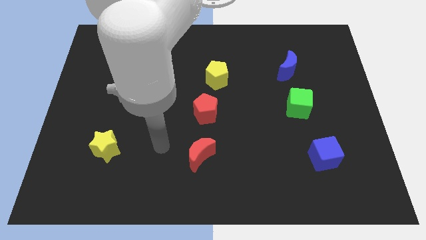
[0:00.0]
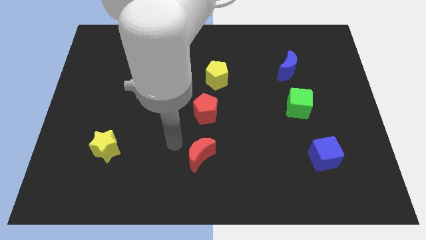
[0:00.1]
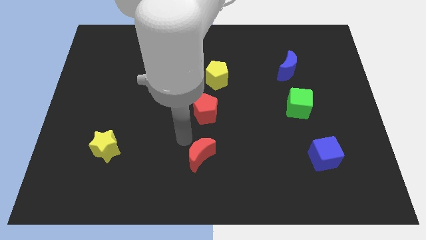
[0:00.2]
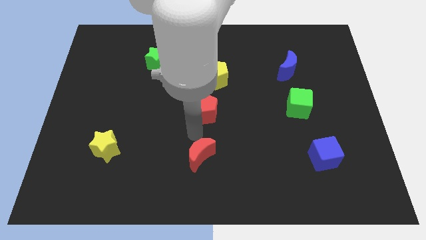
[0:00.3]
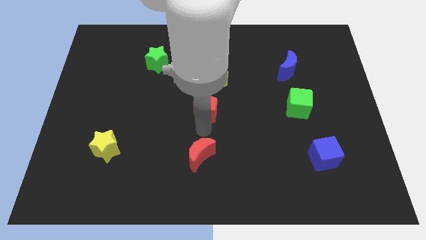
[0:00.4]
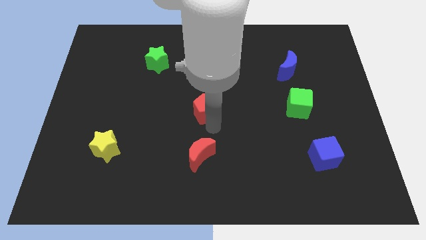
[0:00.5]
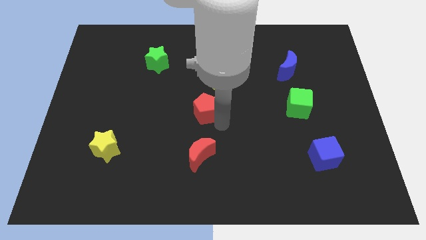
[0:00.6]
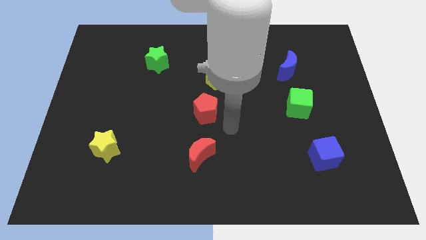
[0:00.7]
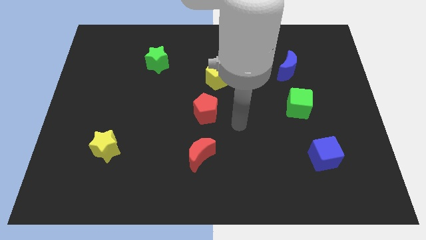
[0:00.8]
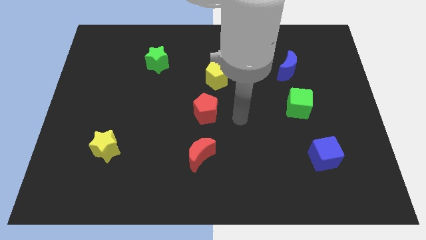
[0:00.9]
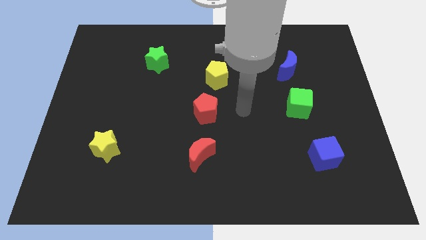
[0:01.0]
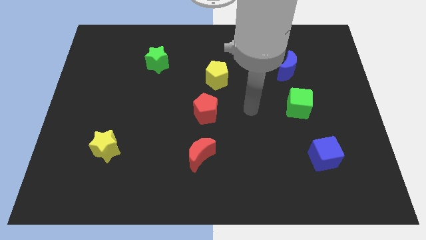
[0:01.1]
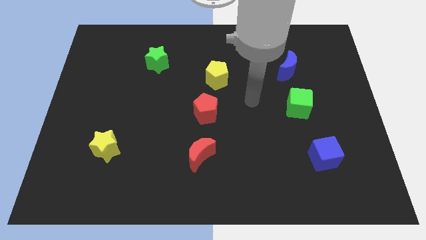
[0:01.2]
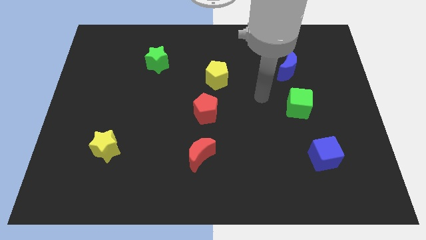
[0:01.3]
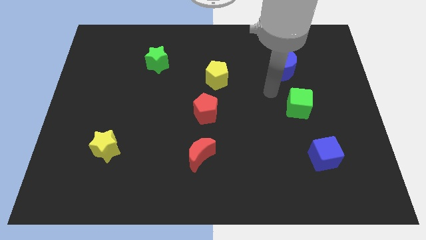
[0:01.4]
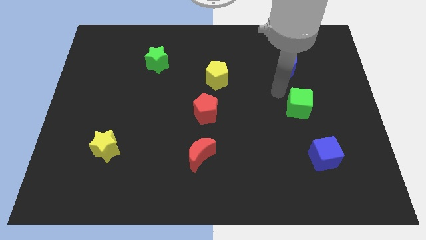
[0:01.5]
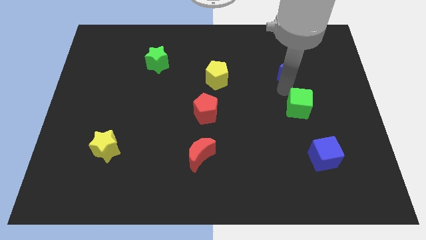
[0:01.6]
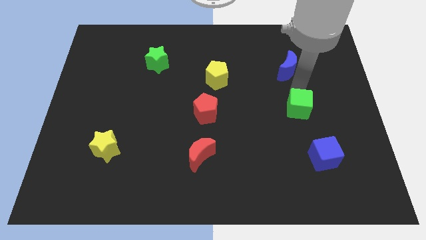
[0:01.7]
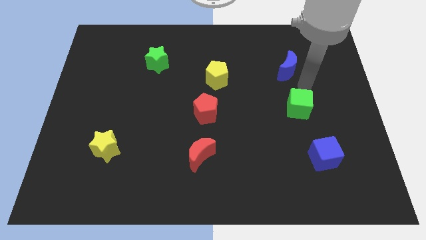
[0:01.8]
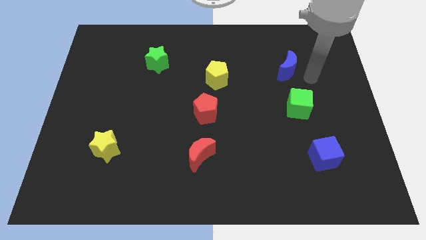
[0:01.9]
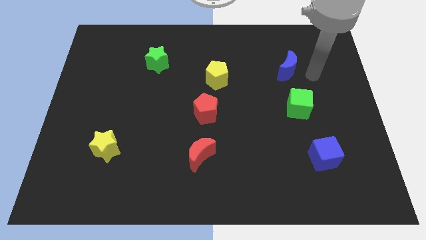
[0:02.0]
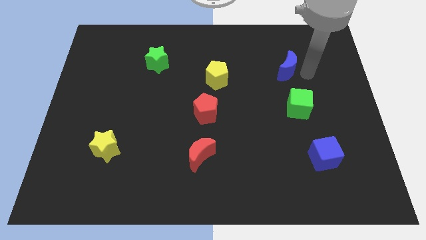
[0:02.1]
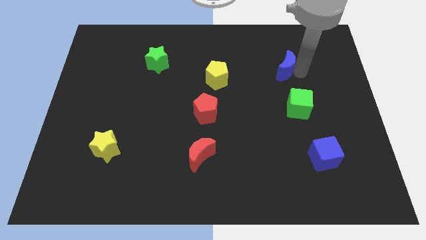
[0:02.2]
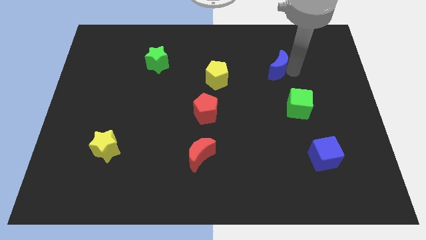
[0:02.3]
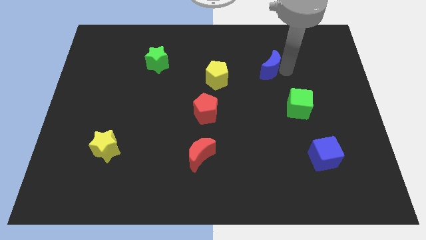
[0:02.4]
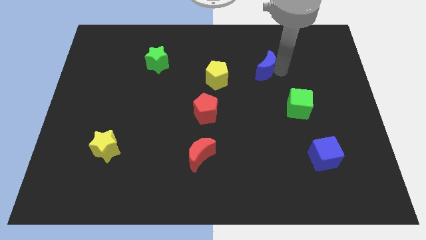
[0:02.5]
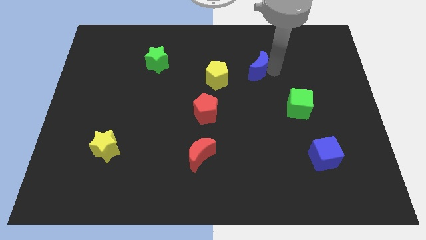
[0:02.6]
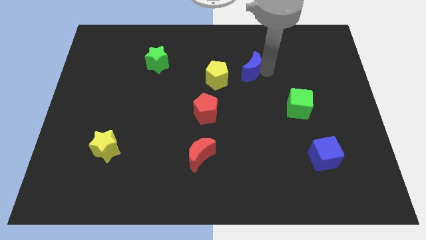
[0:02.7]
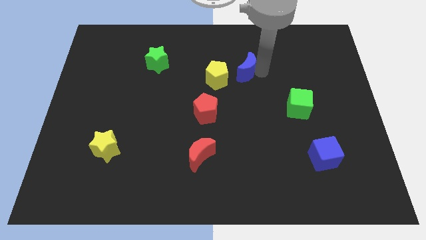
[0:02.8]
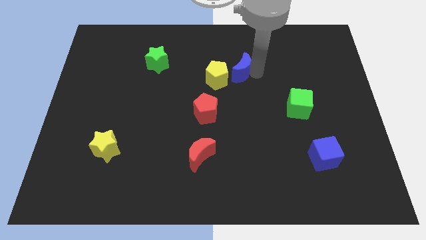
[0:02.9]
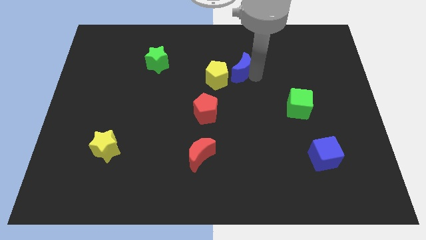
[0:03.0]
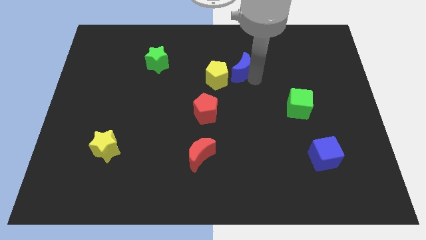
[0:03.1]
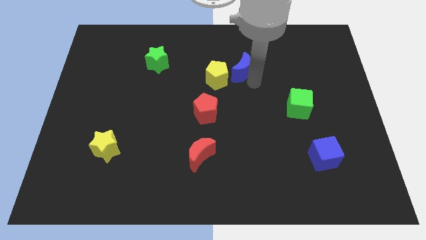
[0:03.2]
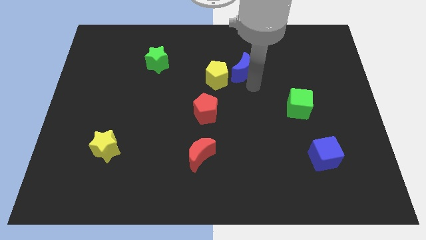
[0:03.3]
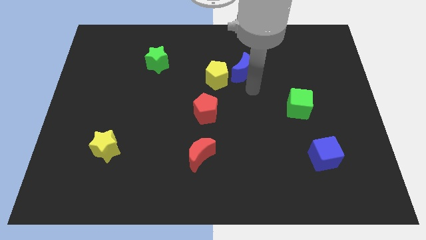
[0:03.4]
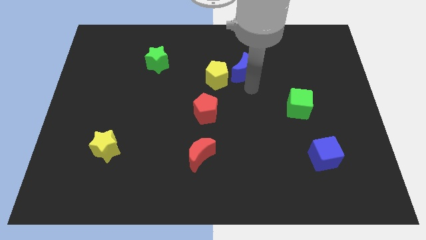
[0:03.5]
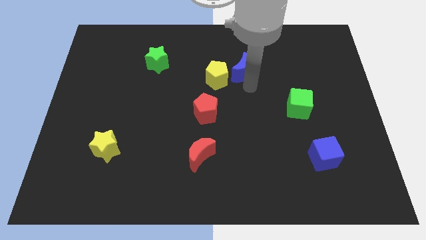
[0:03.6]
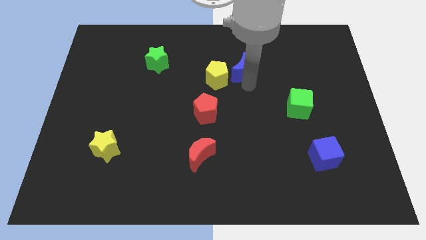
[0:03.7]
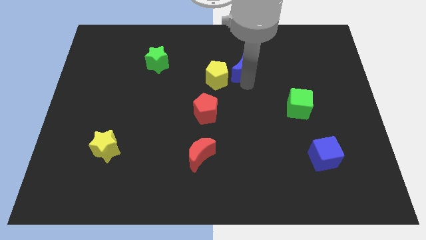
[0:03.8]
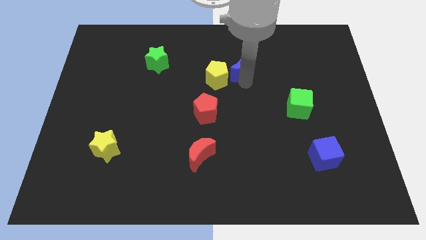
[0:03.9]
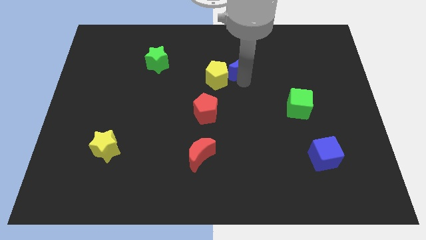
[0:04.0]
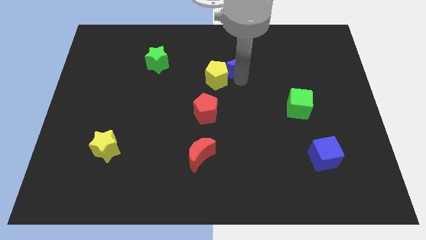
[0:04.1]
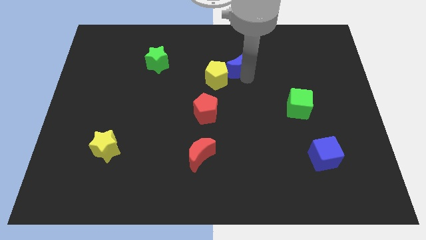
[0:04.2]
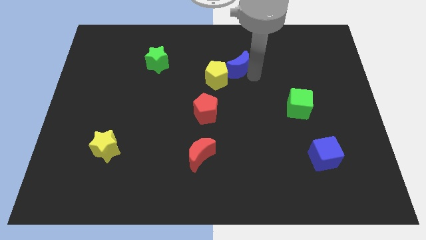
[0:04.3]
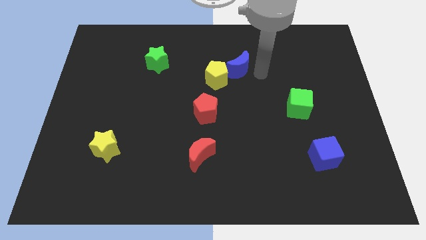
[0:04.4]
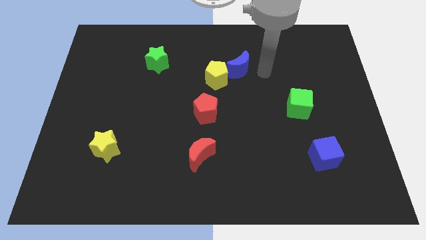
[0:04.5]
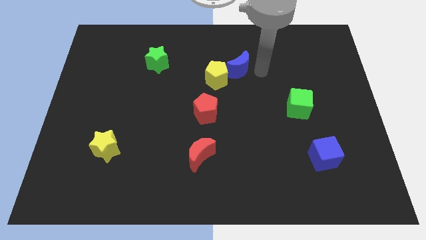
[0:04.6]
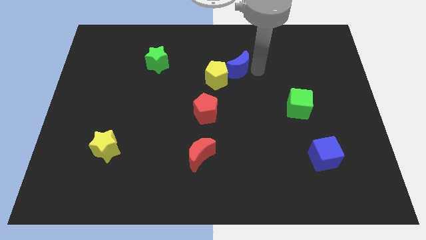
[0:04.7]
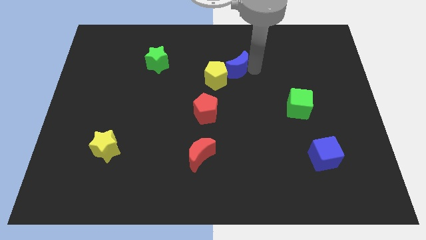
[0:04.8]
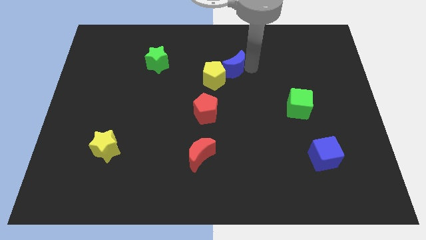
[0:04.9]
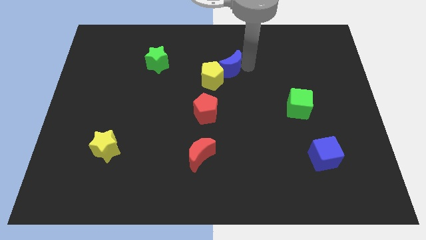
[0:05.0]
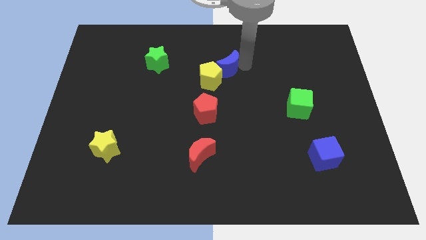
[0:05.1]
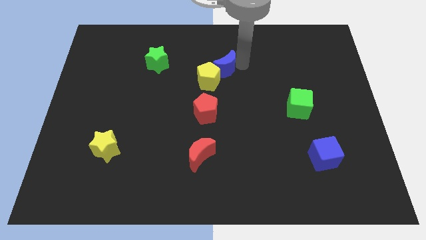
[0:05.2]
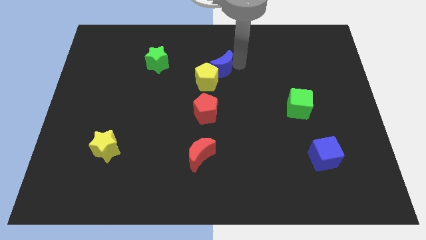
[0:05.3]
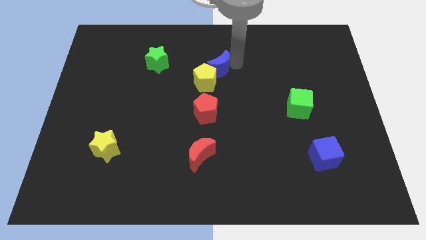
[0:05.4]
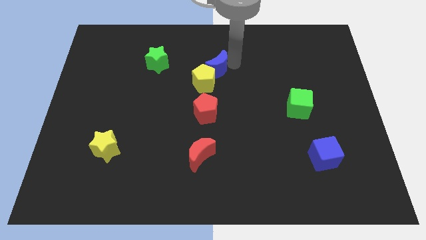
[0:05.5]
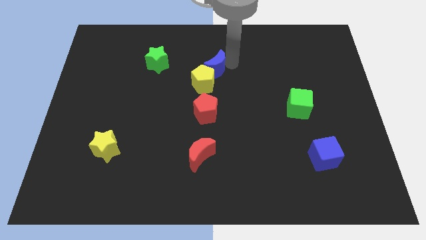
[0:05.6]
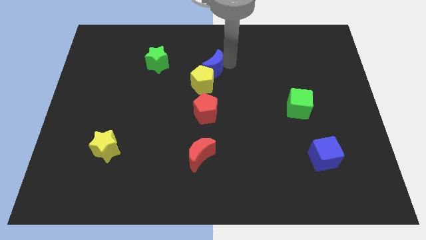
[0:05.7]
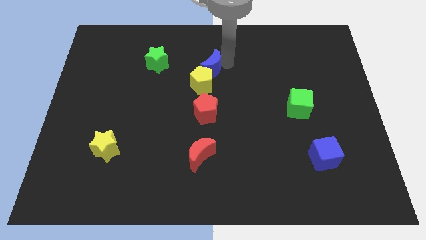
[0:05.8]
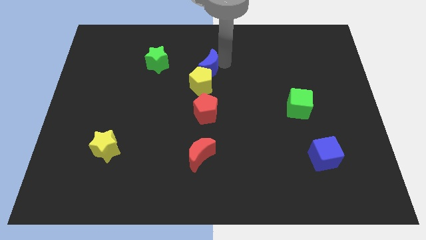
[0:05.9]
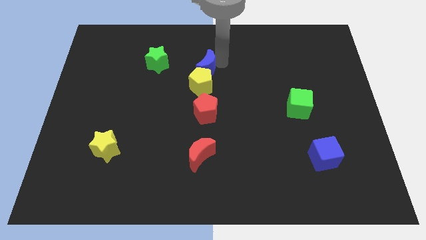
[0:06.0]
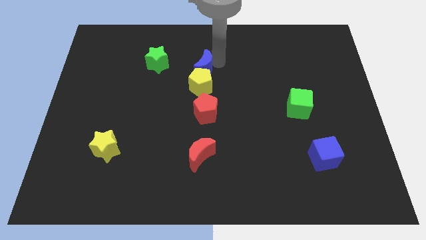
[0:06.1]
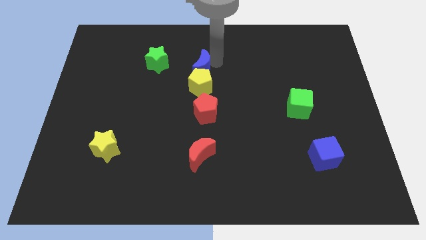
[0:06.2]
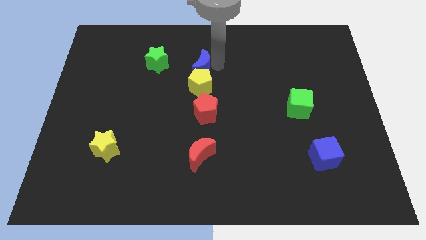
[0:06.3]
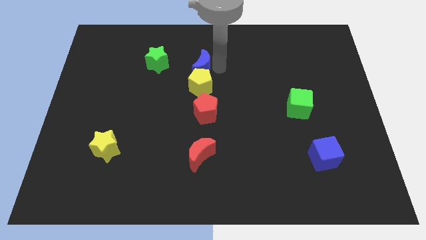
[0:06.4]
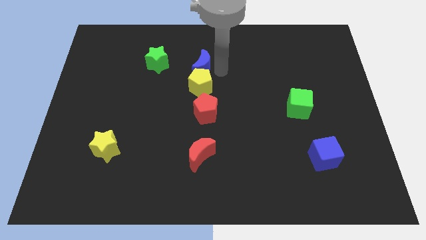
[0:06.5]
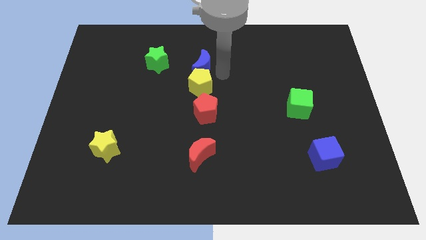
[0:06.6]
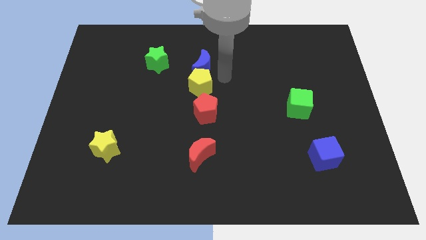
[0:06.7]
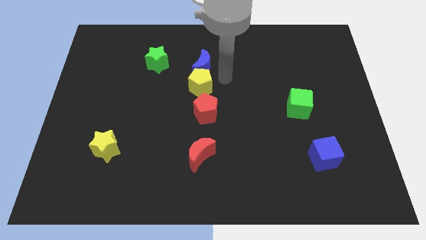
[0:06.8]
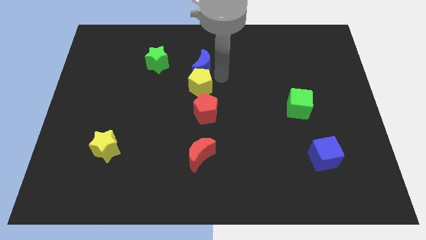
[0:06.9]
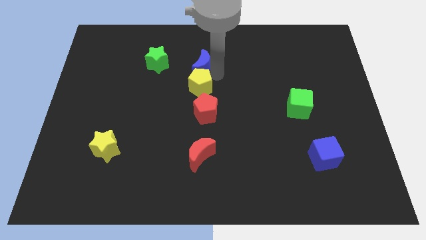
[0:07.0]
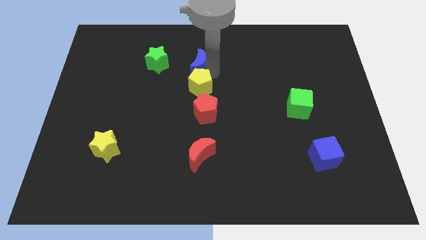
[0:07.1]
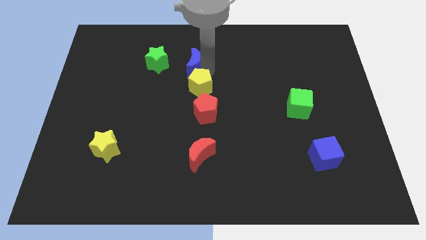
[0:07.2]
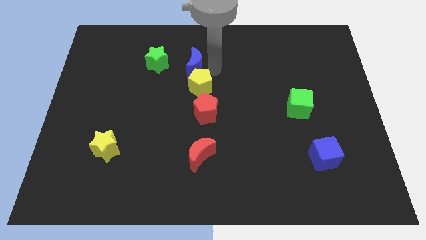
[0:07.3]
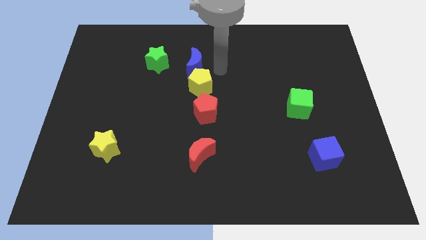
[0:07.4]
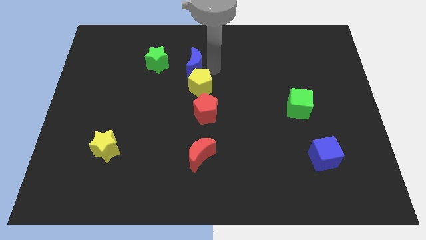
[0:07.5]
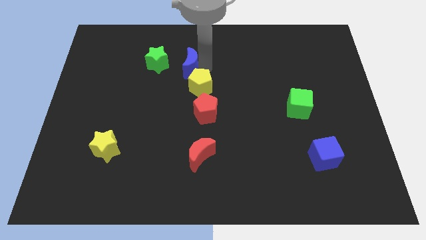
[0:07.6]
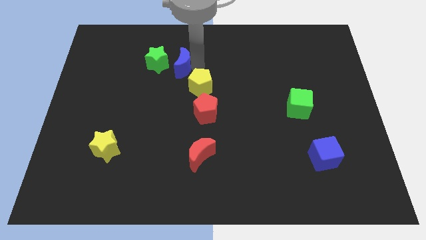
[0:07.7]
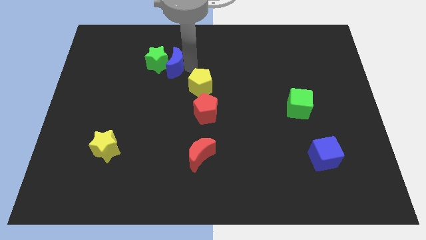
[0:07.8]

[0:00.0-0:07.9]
move the blue moon close to the green star

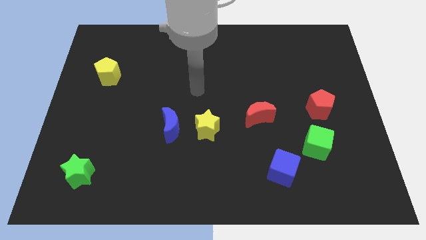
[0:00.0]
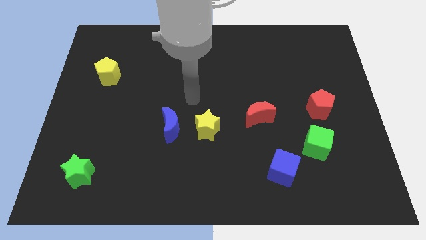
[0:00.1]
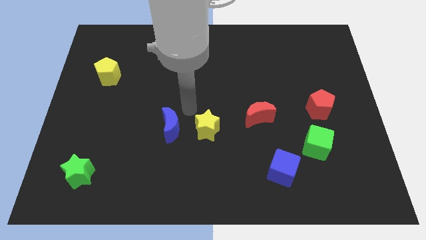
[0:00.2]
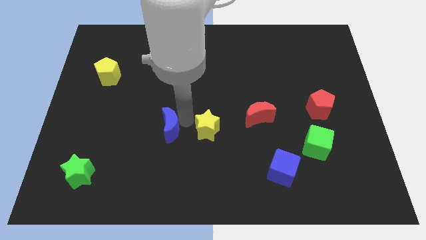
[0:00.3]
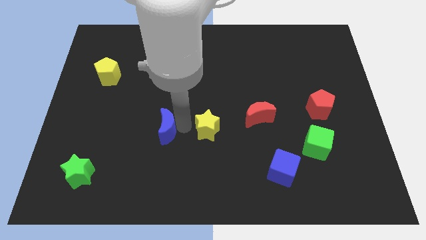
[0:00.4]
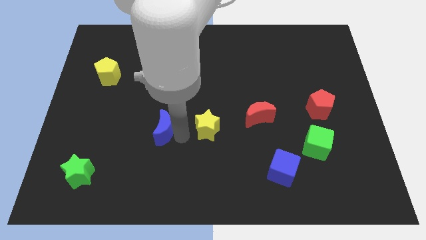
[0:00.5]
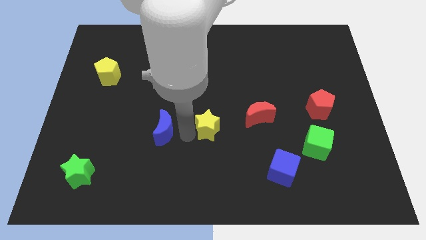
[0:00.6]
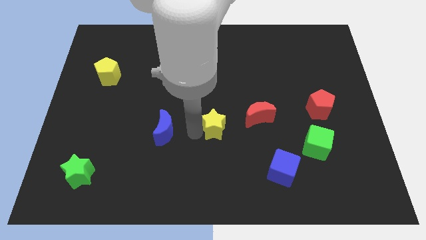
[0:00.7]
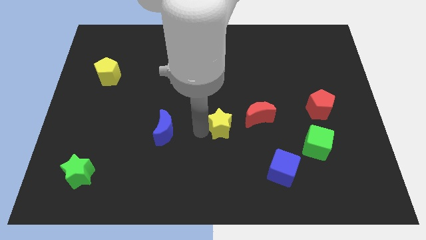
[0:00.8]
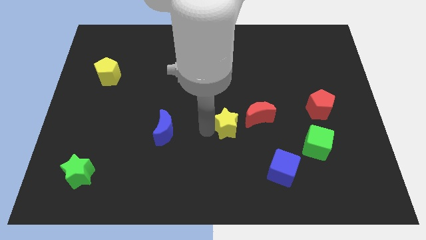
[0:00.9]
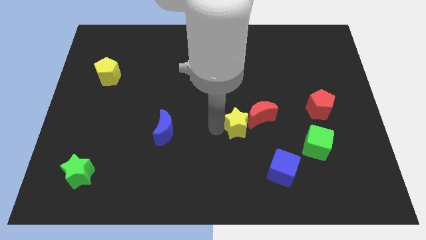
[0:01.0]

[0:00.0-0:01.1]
push the yellow star towards the red moon
